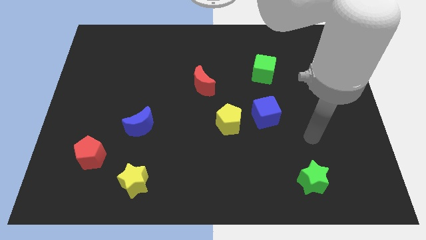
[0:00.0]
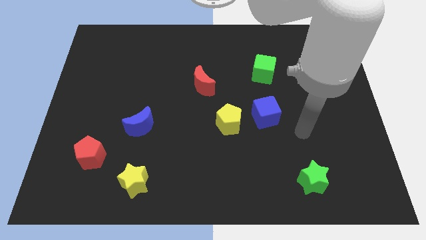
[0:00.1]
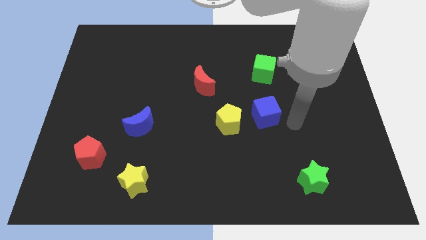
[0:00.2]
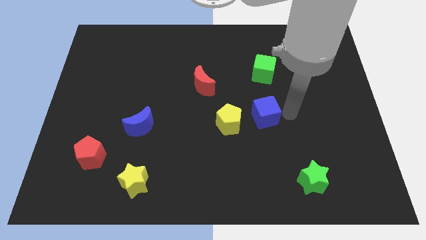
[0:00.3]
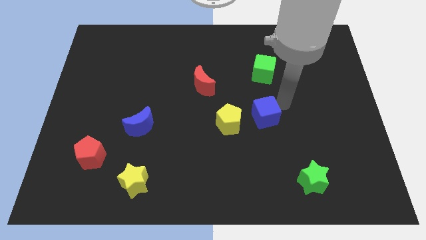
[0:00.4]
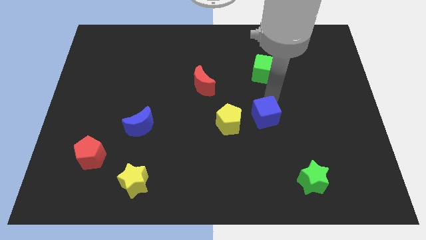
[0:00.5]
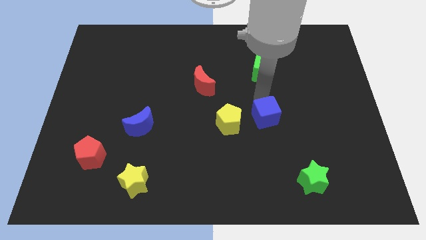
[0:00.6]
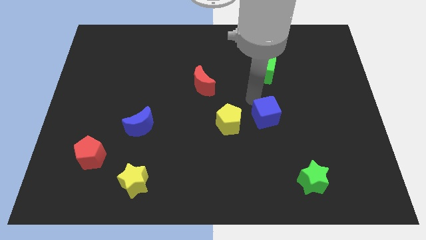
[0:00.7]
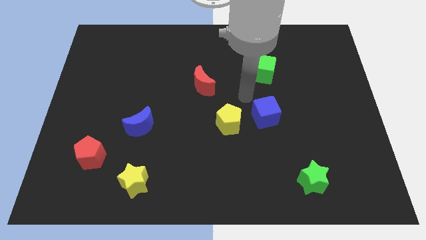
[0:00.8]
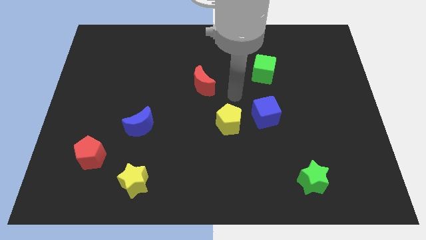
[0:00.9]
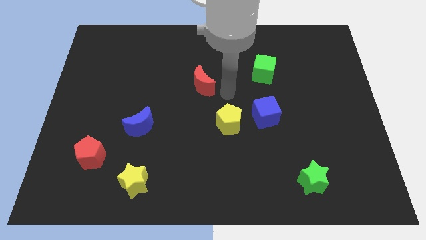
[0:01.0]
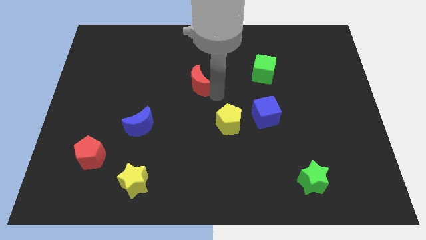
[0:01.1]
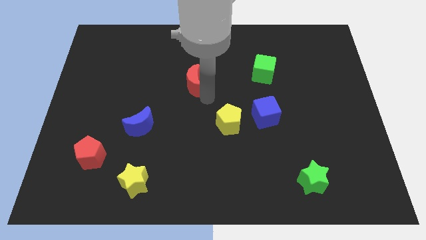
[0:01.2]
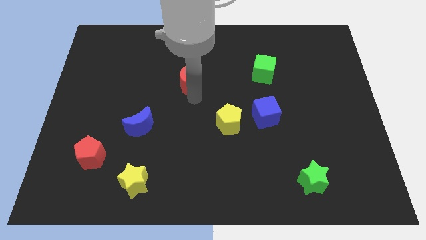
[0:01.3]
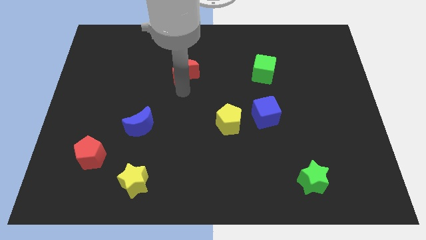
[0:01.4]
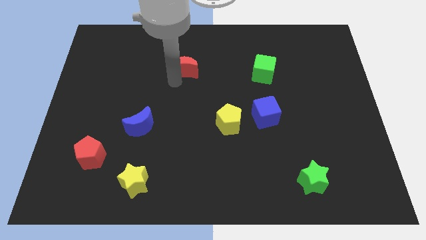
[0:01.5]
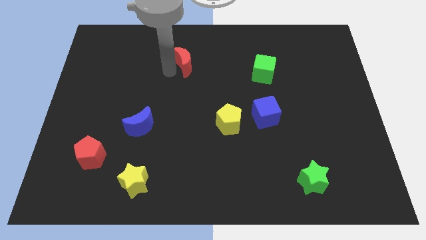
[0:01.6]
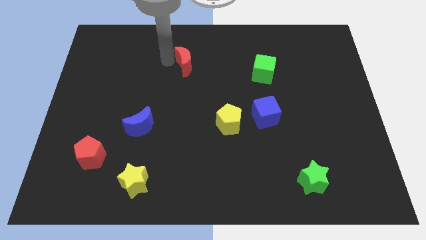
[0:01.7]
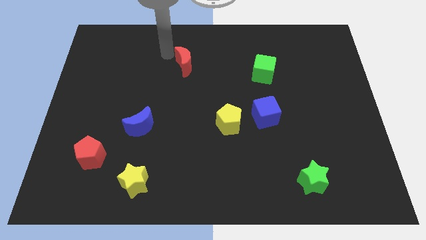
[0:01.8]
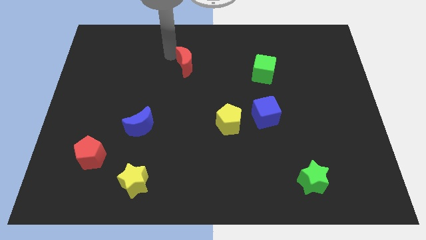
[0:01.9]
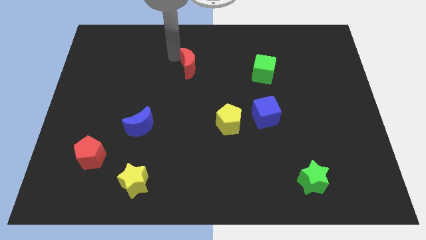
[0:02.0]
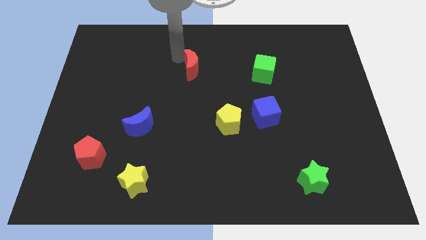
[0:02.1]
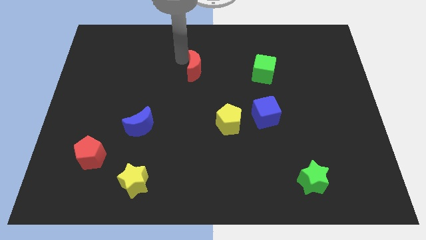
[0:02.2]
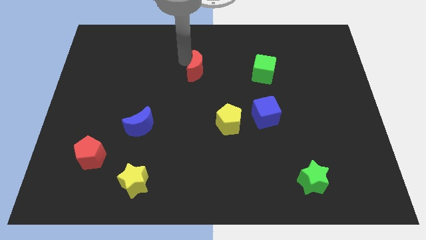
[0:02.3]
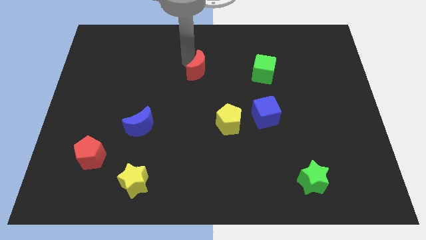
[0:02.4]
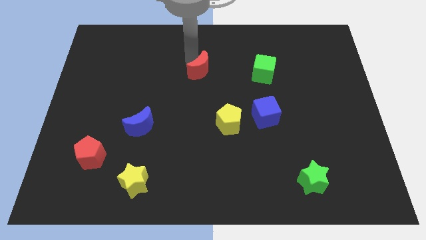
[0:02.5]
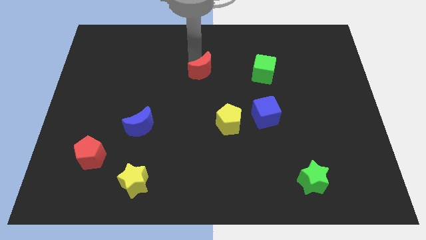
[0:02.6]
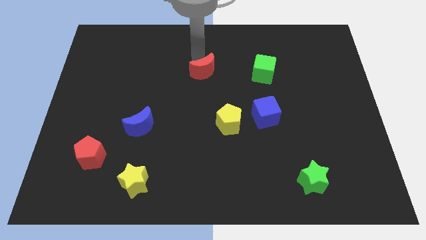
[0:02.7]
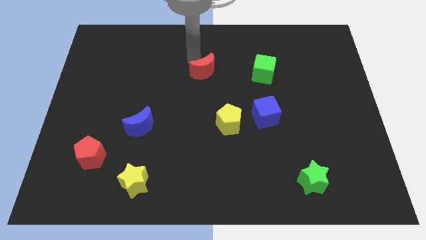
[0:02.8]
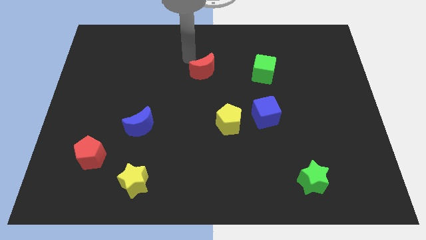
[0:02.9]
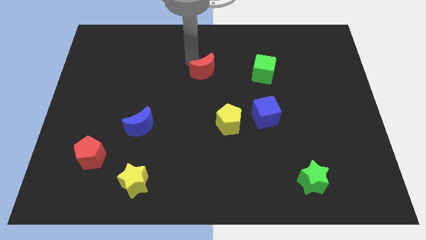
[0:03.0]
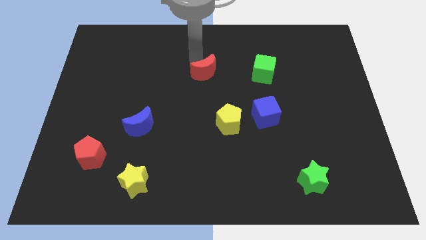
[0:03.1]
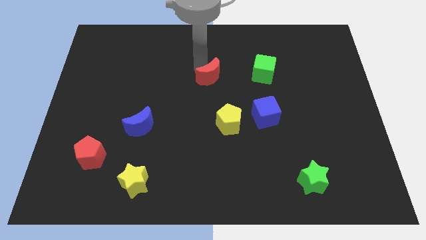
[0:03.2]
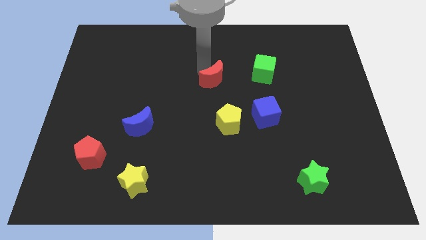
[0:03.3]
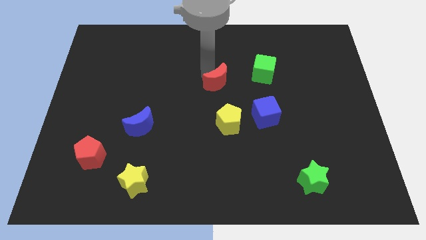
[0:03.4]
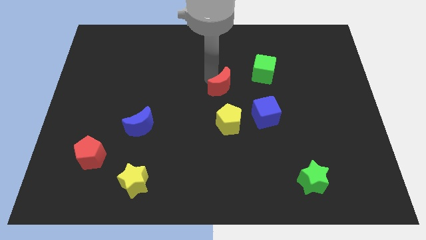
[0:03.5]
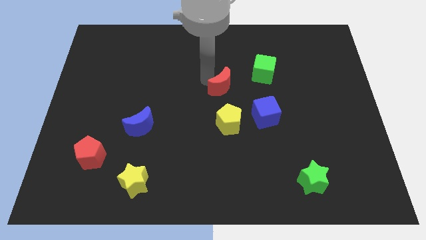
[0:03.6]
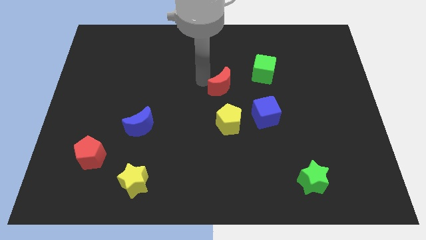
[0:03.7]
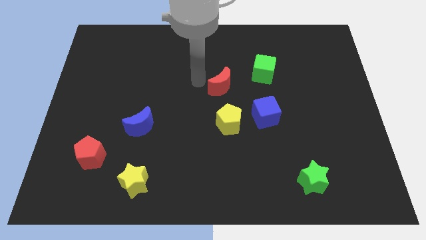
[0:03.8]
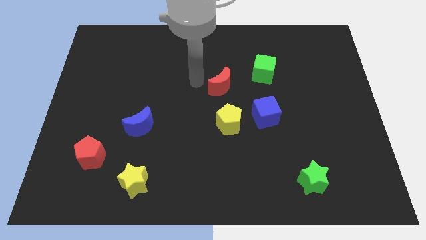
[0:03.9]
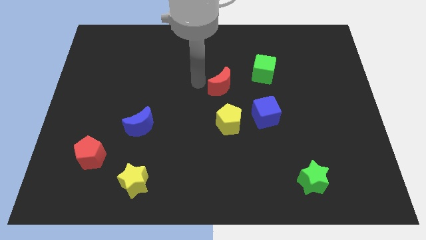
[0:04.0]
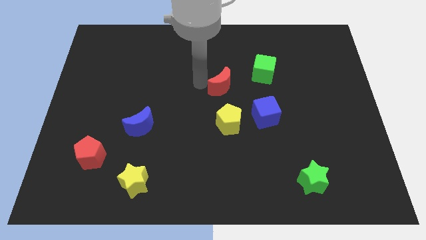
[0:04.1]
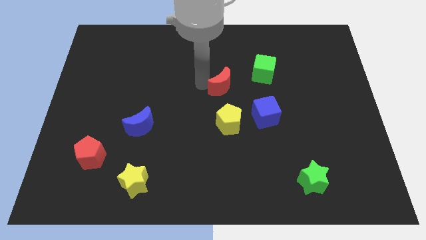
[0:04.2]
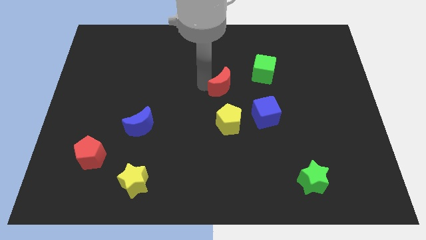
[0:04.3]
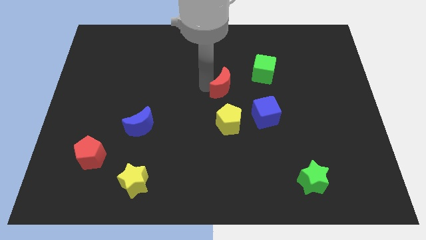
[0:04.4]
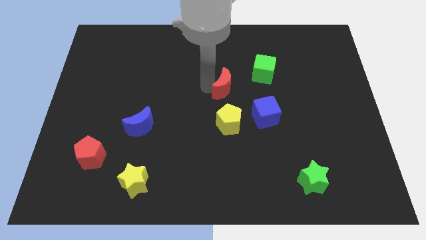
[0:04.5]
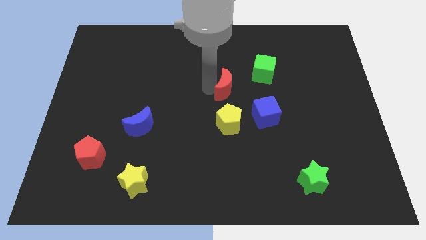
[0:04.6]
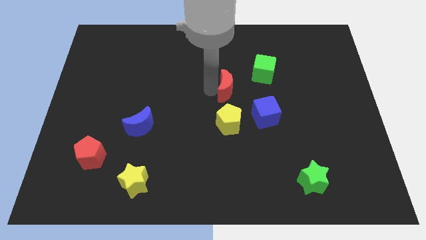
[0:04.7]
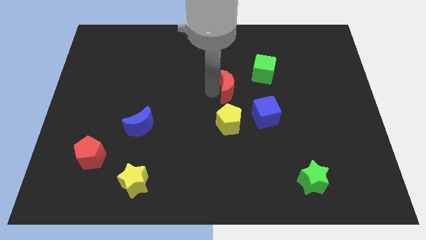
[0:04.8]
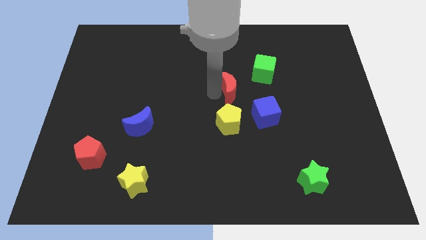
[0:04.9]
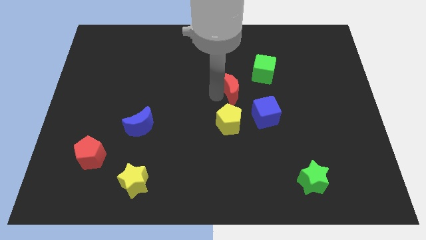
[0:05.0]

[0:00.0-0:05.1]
slide the red moon a bit to the right

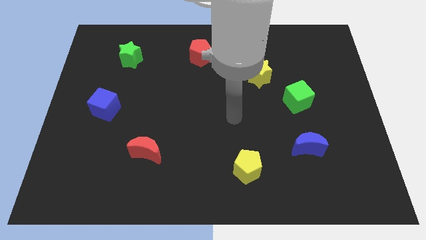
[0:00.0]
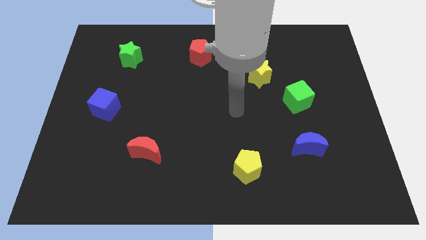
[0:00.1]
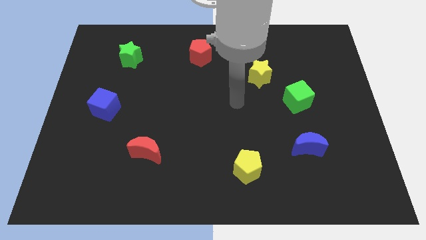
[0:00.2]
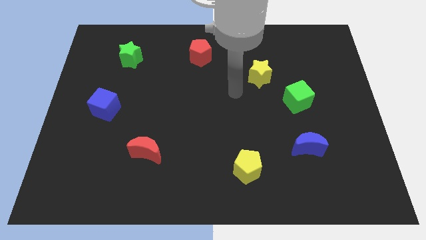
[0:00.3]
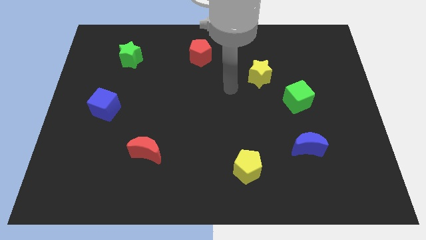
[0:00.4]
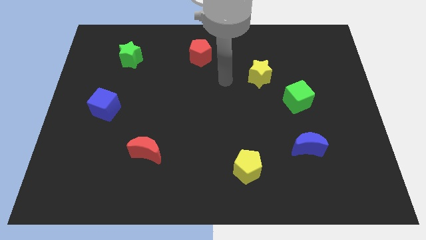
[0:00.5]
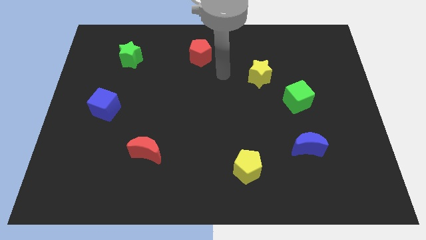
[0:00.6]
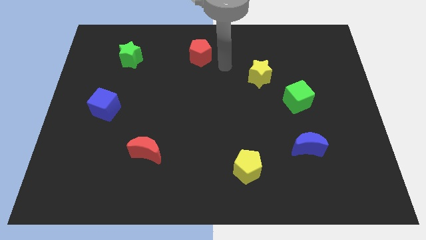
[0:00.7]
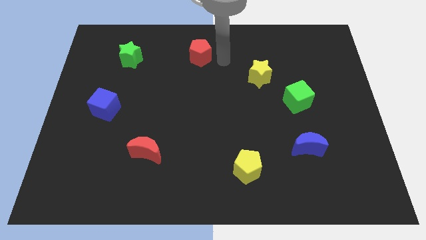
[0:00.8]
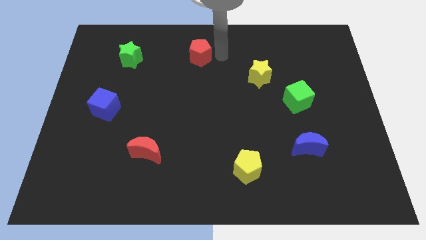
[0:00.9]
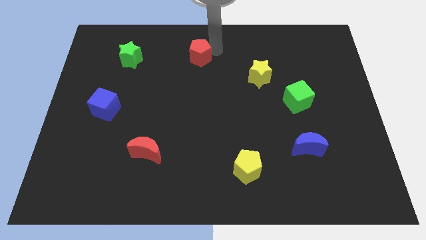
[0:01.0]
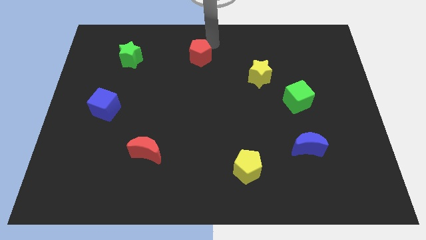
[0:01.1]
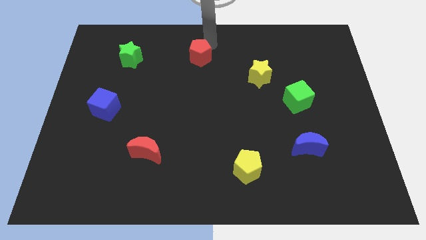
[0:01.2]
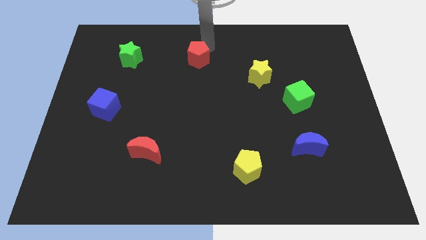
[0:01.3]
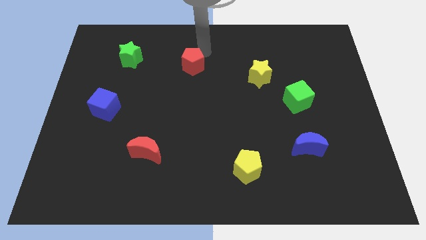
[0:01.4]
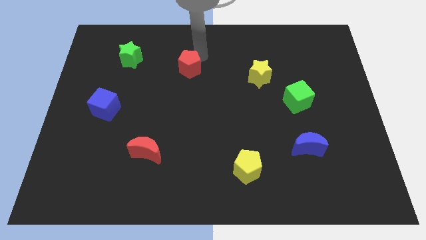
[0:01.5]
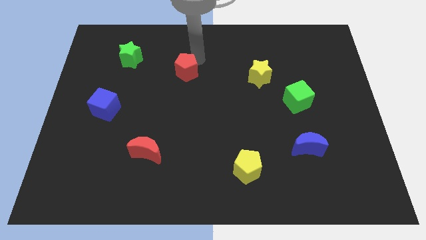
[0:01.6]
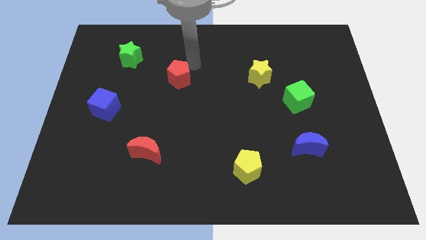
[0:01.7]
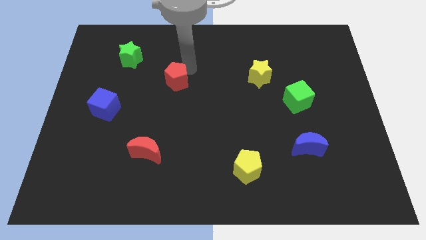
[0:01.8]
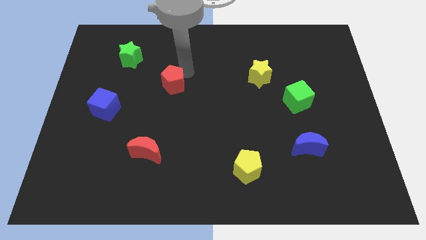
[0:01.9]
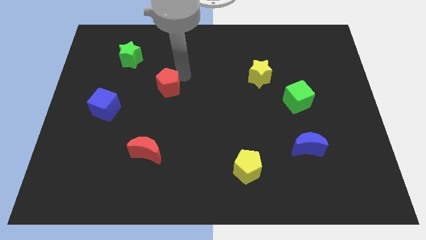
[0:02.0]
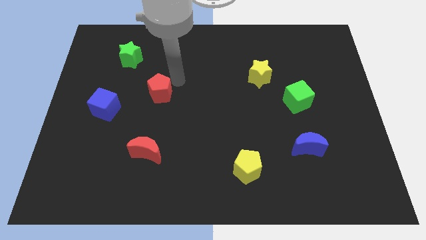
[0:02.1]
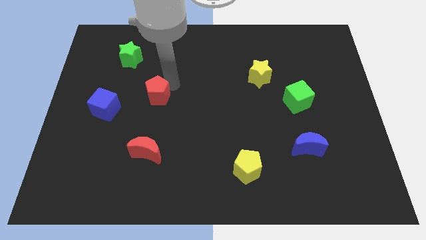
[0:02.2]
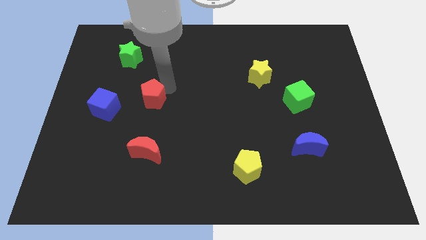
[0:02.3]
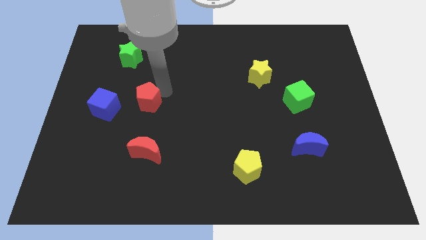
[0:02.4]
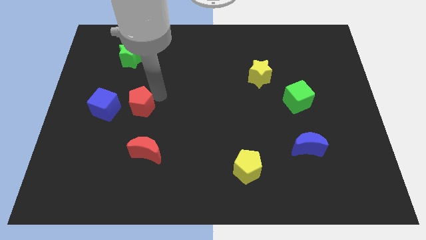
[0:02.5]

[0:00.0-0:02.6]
move the red pentagon downwards and left diagonally
